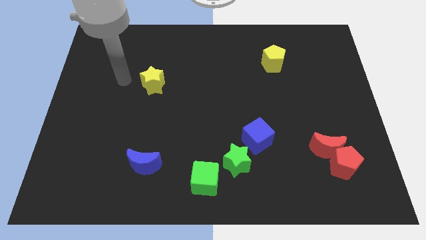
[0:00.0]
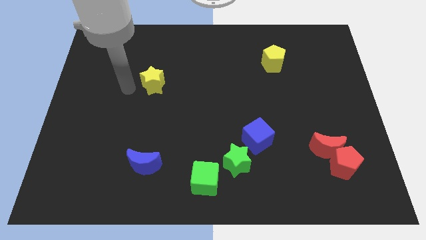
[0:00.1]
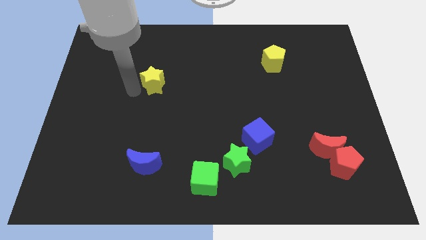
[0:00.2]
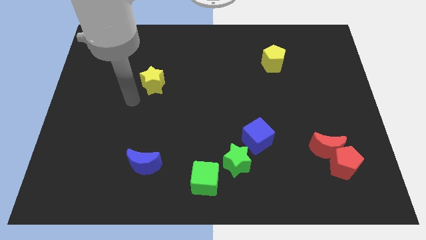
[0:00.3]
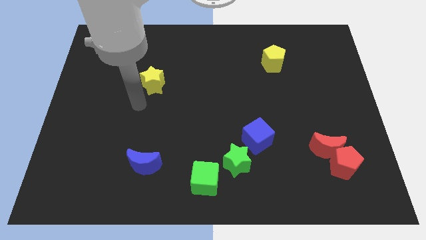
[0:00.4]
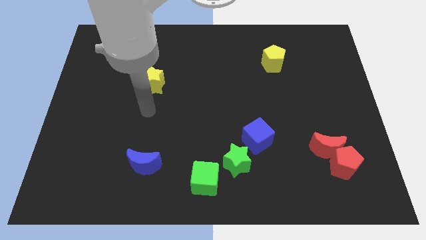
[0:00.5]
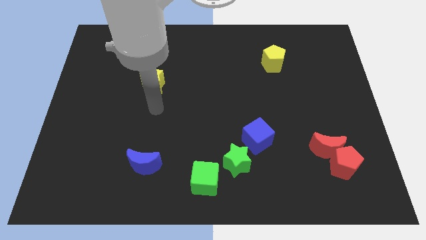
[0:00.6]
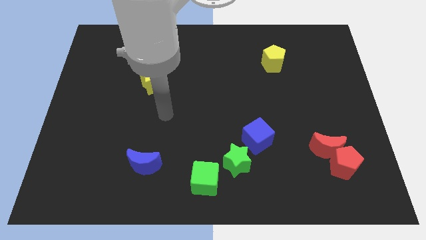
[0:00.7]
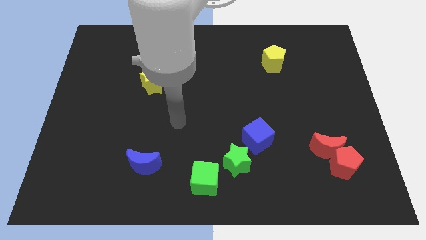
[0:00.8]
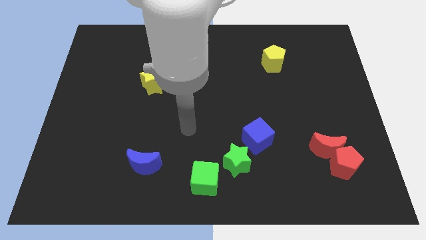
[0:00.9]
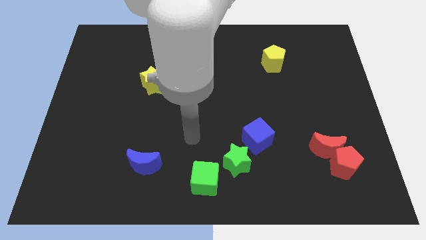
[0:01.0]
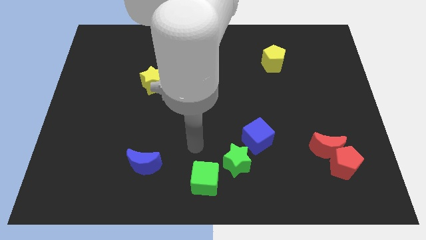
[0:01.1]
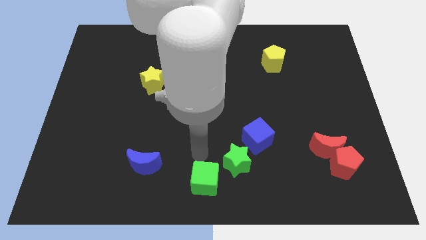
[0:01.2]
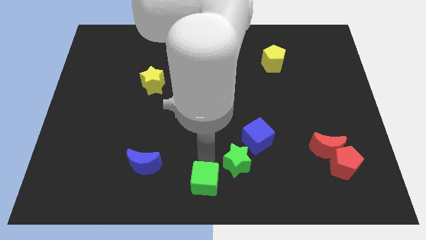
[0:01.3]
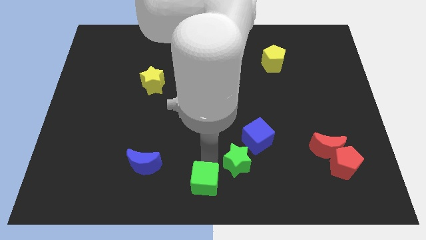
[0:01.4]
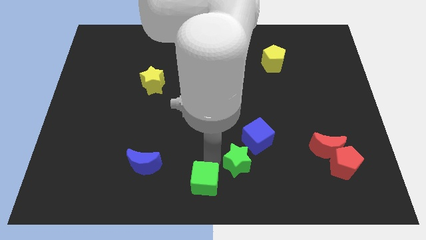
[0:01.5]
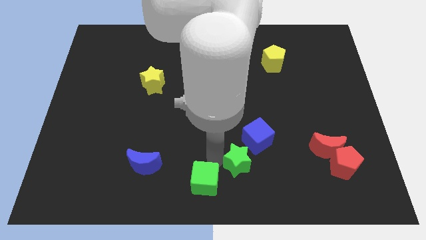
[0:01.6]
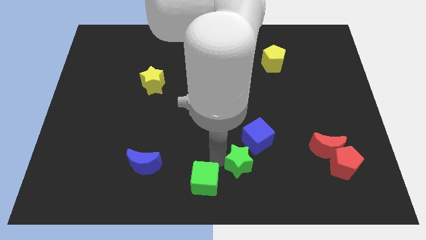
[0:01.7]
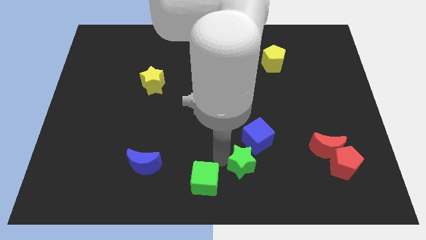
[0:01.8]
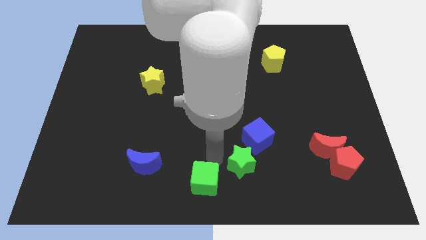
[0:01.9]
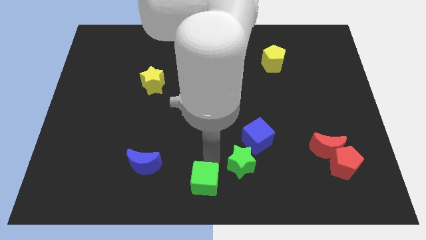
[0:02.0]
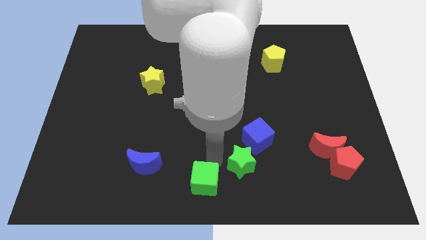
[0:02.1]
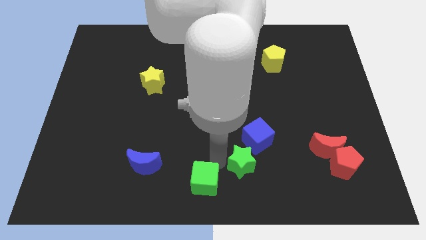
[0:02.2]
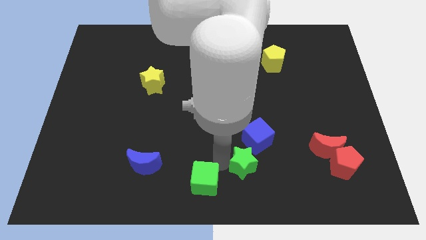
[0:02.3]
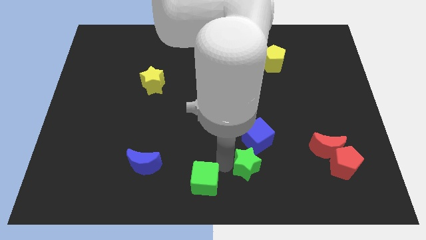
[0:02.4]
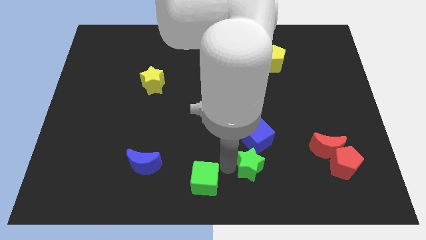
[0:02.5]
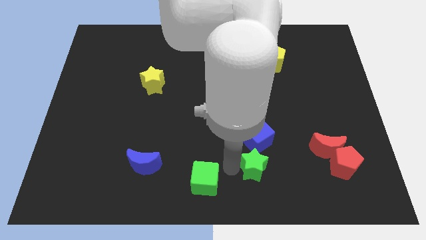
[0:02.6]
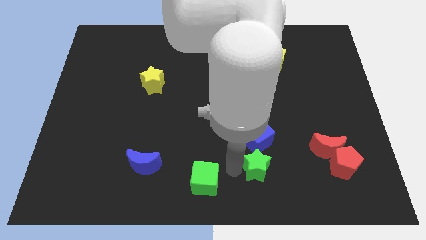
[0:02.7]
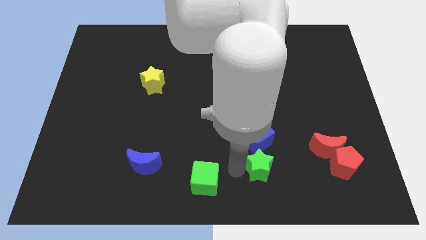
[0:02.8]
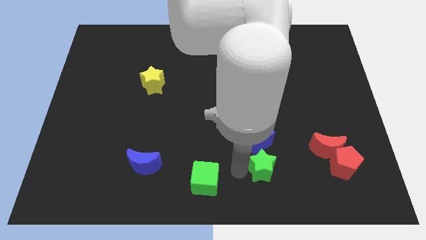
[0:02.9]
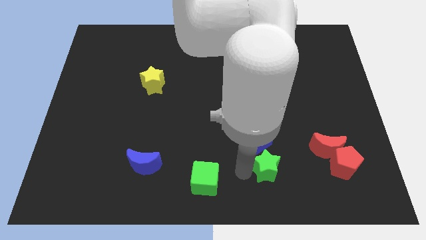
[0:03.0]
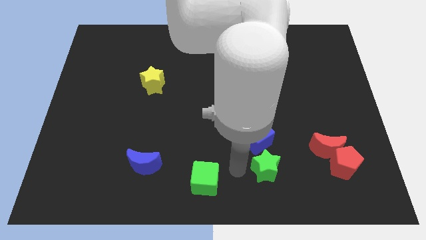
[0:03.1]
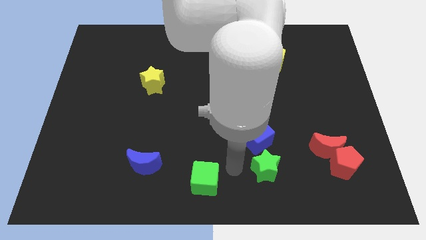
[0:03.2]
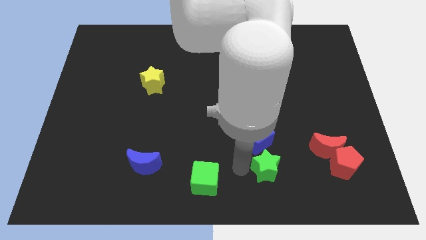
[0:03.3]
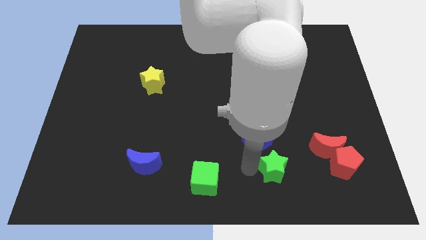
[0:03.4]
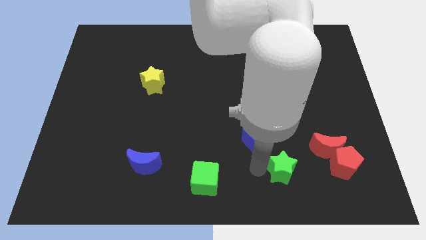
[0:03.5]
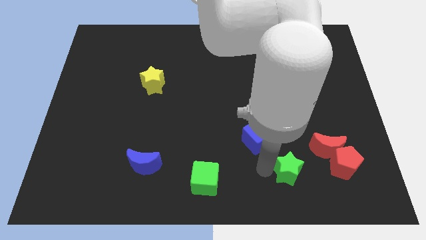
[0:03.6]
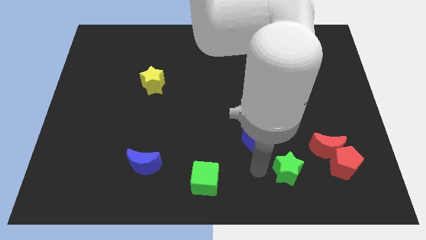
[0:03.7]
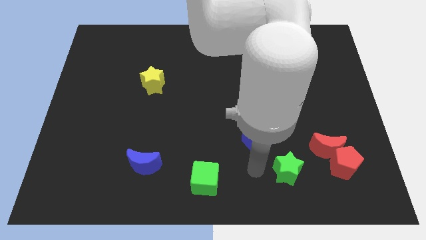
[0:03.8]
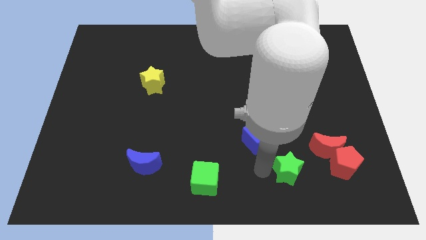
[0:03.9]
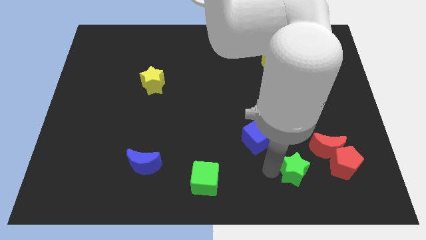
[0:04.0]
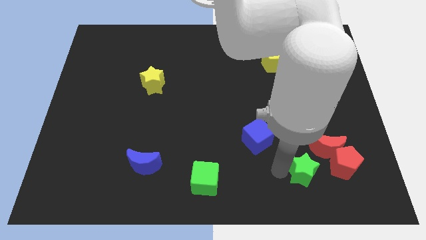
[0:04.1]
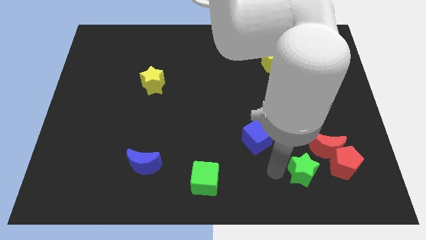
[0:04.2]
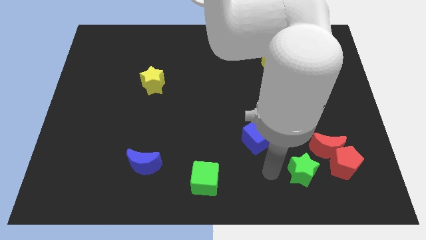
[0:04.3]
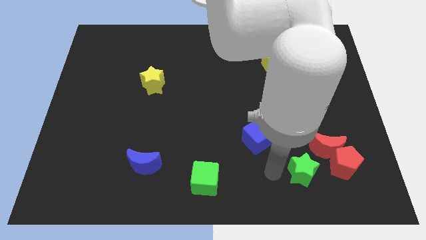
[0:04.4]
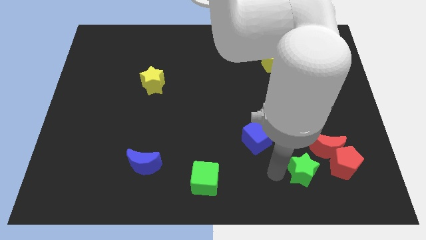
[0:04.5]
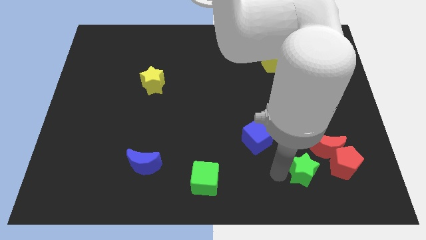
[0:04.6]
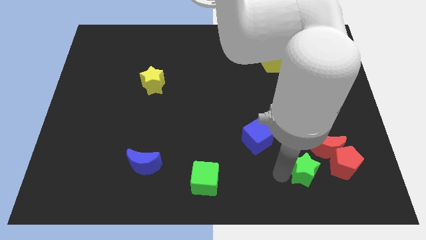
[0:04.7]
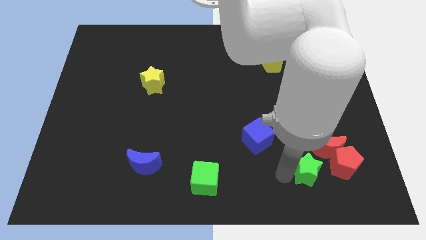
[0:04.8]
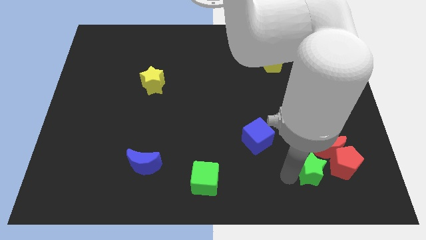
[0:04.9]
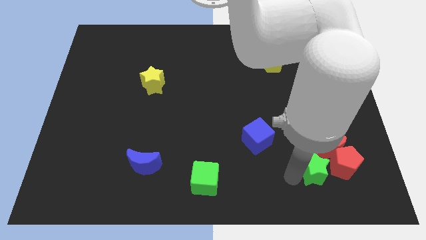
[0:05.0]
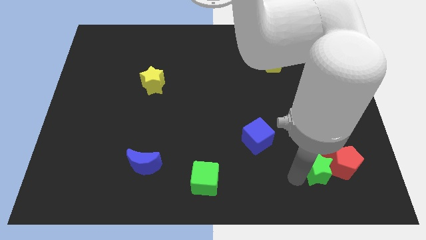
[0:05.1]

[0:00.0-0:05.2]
slide the green star to the red pentagon

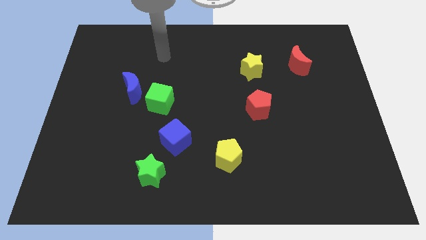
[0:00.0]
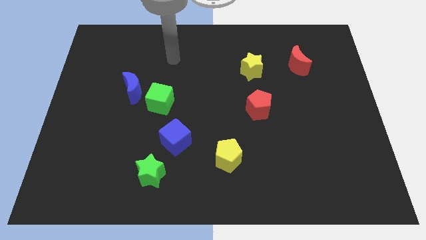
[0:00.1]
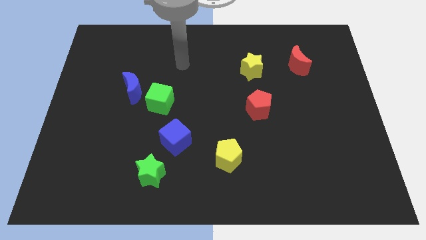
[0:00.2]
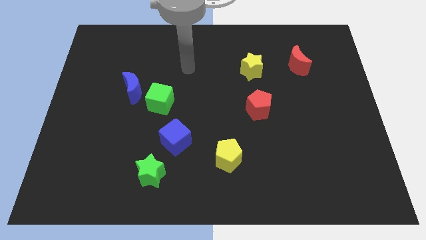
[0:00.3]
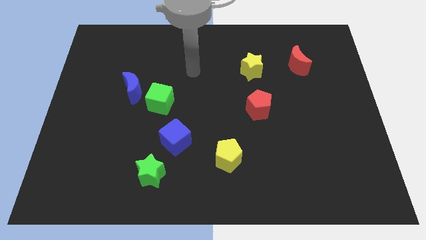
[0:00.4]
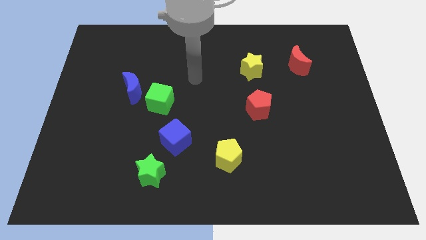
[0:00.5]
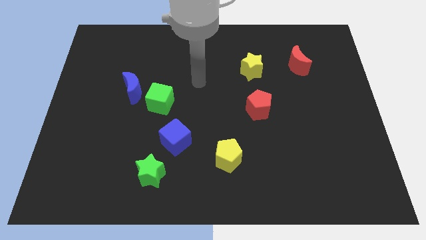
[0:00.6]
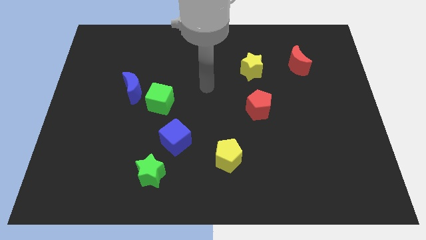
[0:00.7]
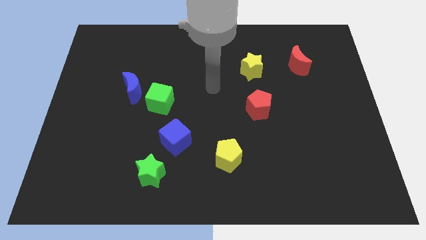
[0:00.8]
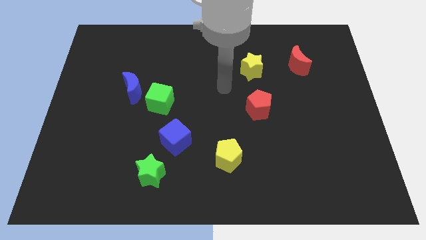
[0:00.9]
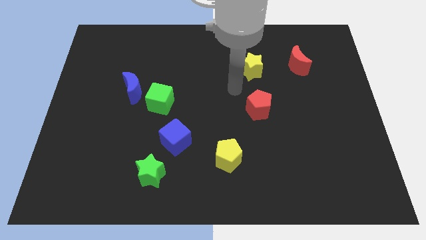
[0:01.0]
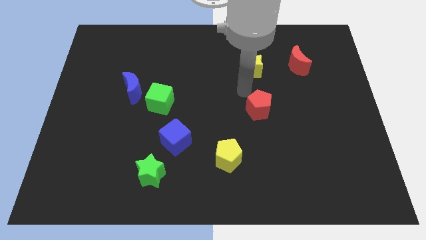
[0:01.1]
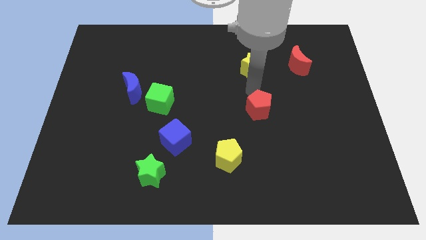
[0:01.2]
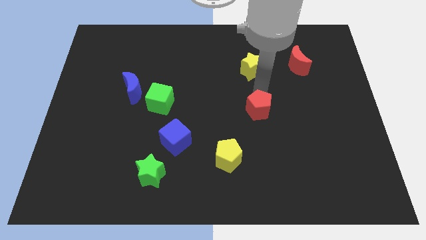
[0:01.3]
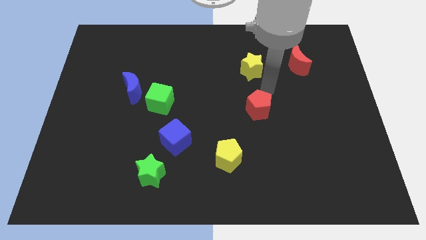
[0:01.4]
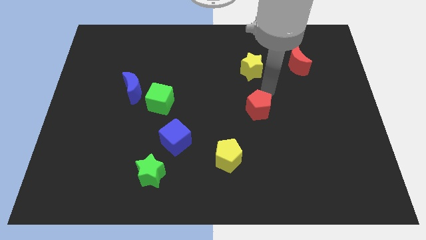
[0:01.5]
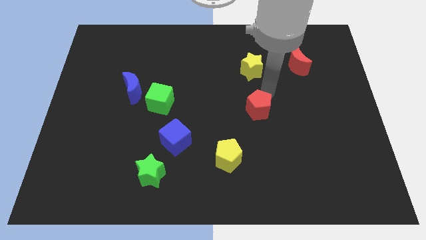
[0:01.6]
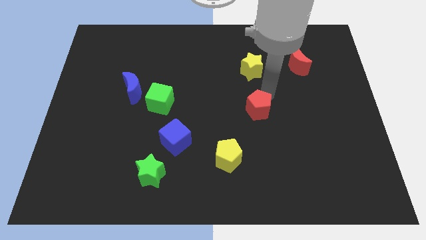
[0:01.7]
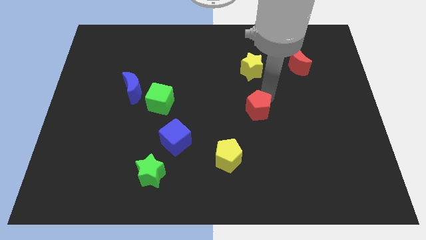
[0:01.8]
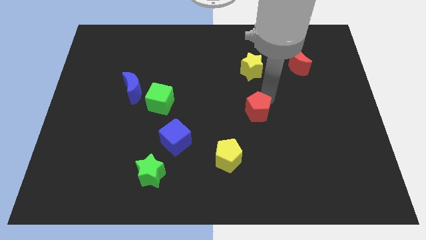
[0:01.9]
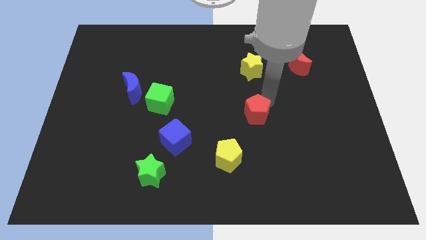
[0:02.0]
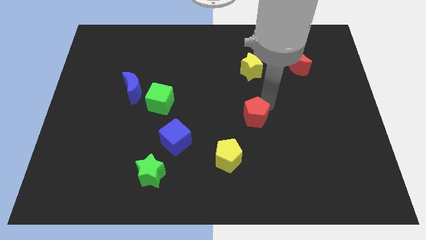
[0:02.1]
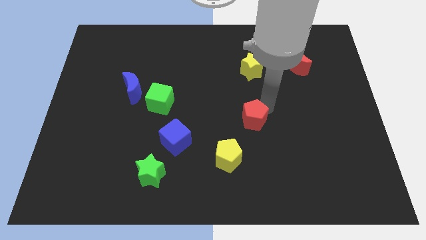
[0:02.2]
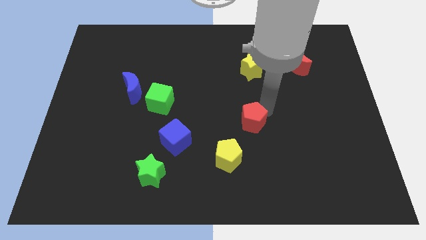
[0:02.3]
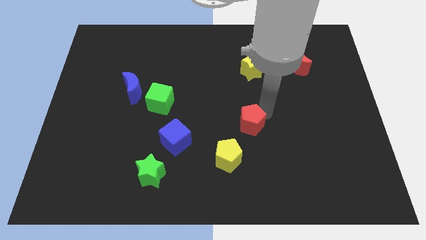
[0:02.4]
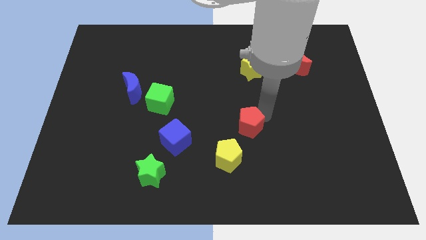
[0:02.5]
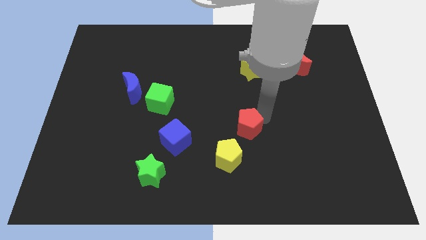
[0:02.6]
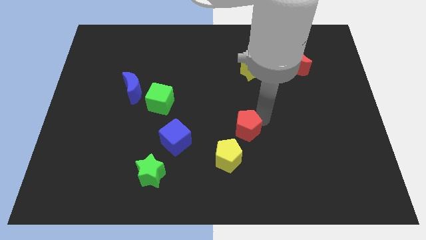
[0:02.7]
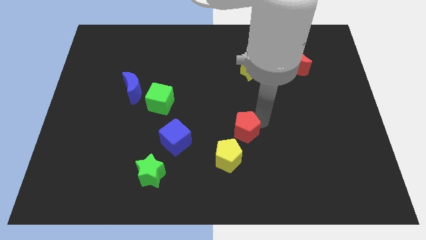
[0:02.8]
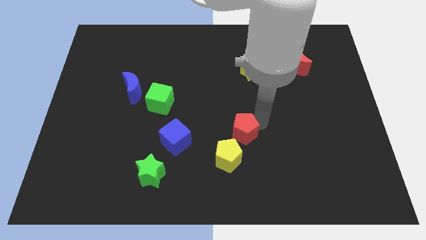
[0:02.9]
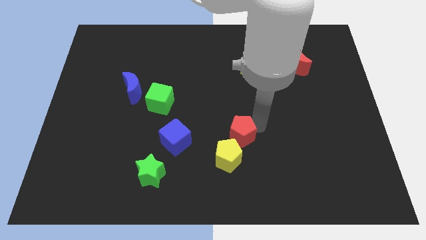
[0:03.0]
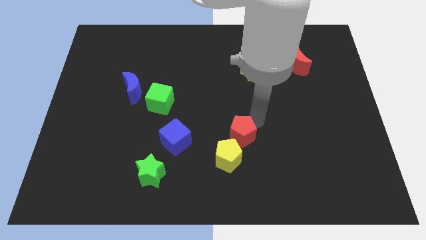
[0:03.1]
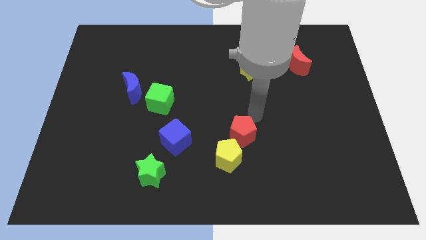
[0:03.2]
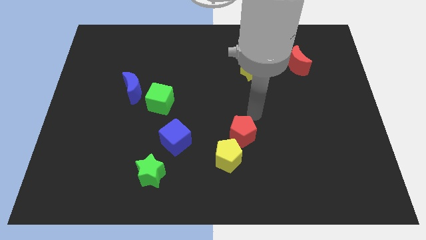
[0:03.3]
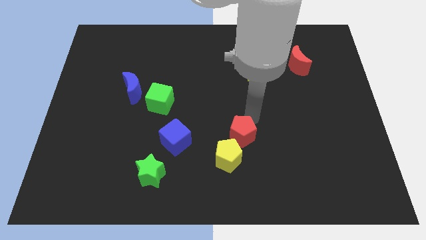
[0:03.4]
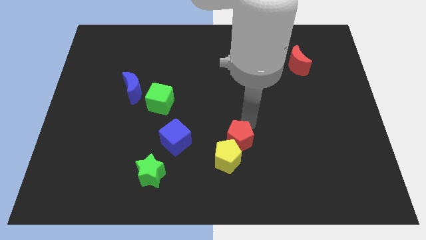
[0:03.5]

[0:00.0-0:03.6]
push the red pentagon close to the yellow pentagon
